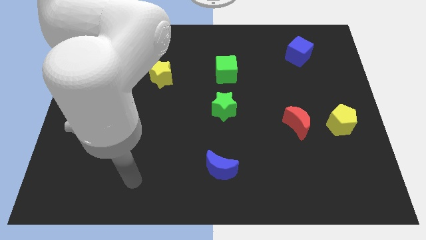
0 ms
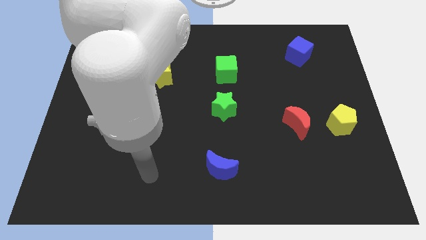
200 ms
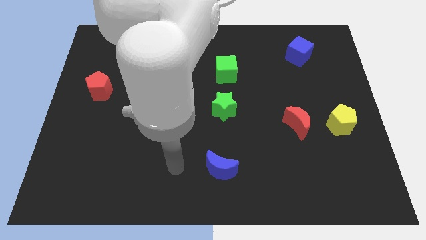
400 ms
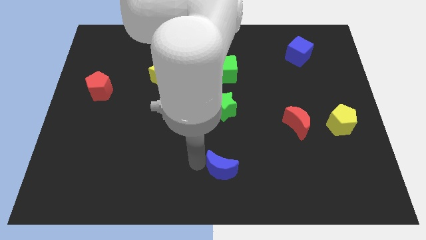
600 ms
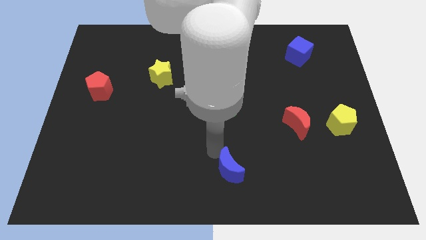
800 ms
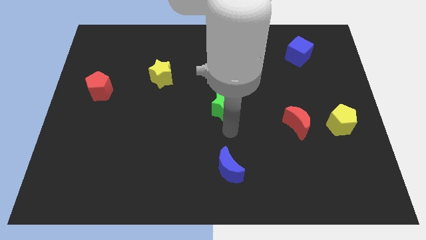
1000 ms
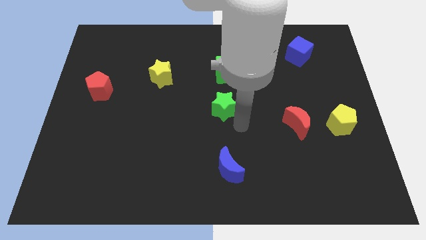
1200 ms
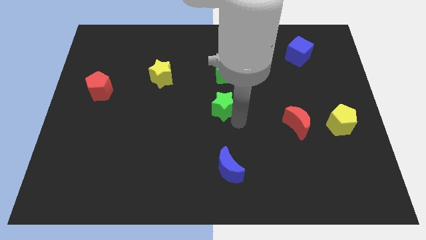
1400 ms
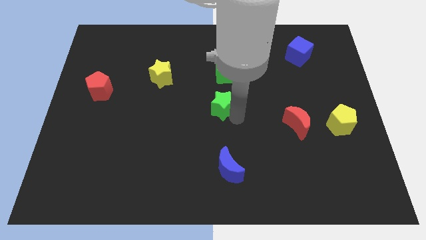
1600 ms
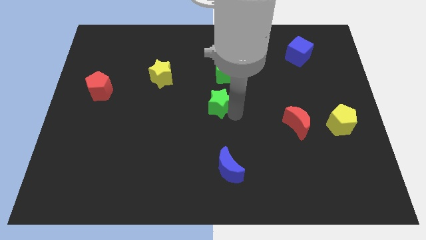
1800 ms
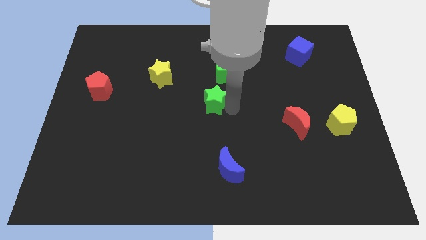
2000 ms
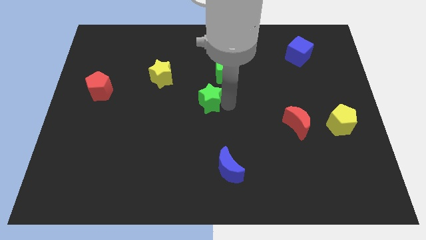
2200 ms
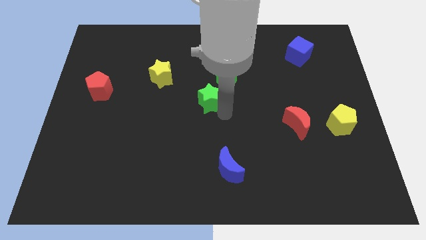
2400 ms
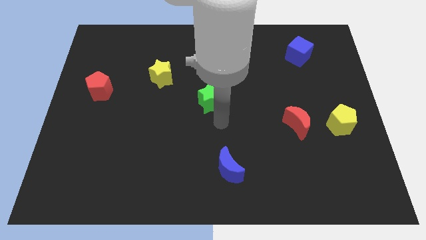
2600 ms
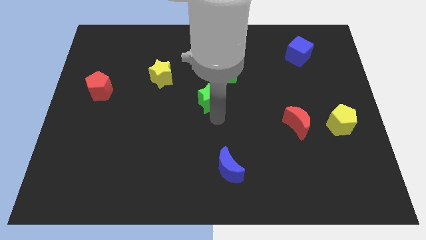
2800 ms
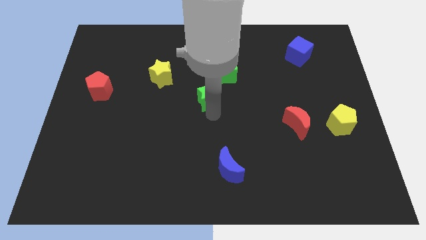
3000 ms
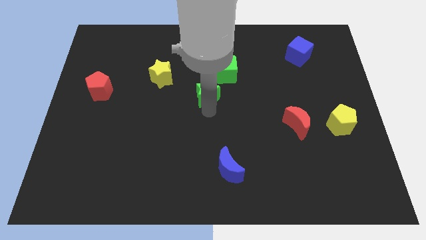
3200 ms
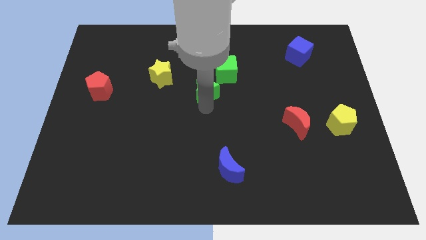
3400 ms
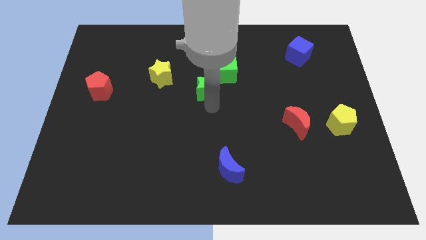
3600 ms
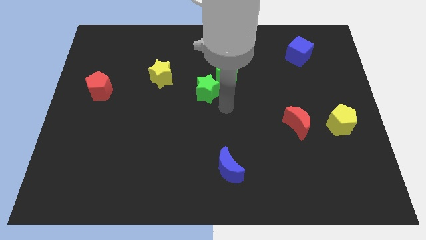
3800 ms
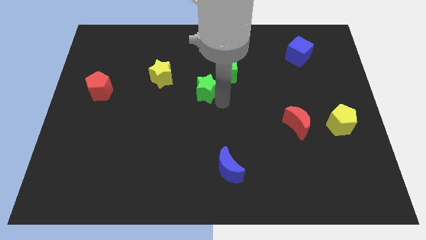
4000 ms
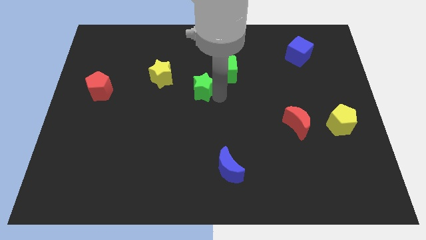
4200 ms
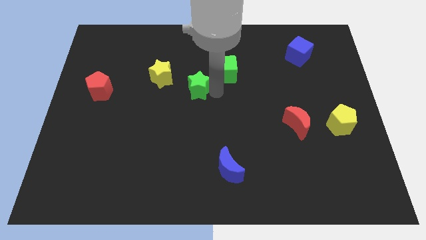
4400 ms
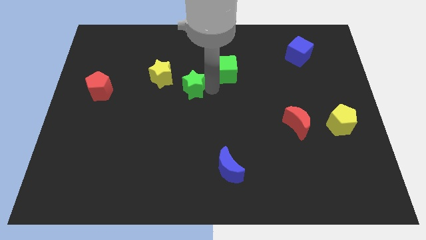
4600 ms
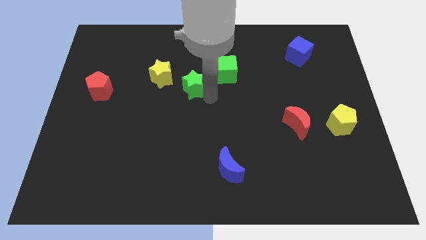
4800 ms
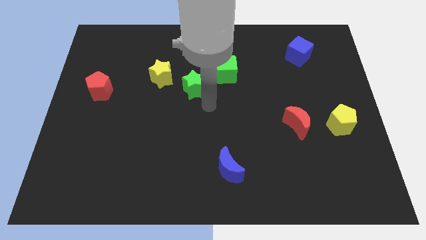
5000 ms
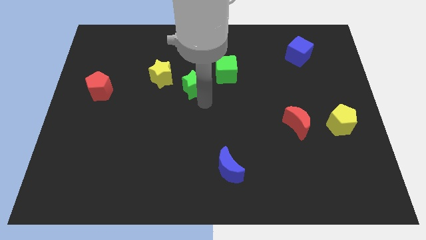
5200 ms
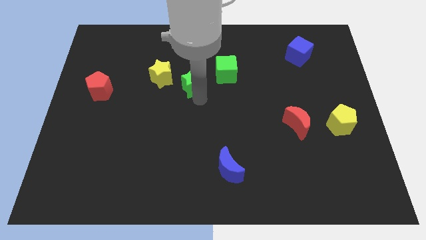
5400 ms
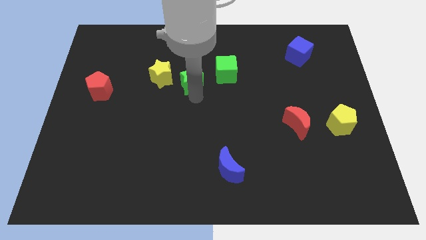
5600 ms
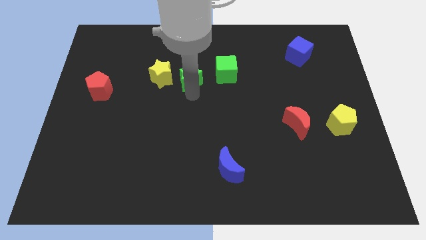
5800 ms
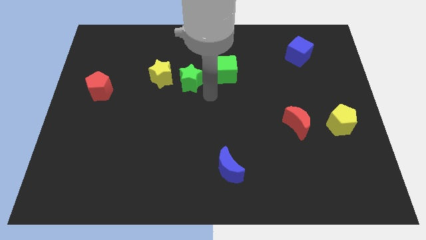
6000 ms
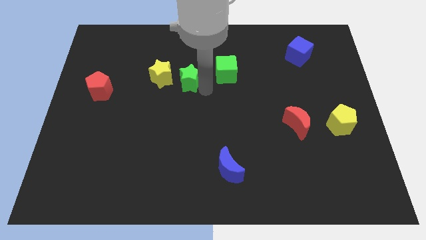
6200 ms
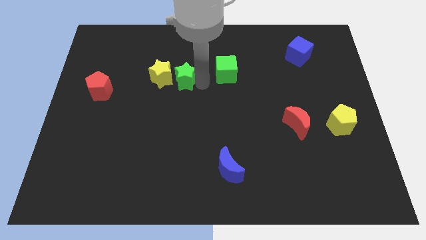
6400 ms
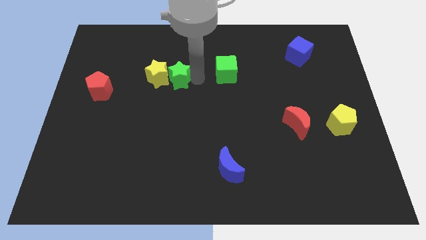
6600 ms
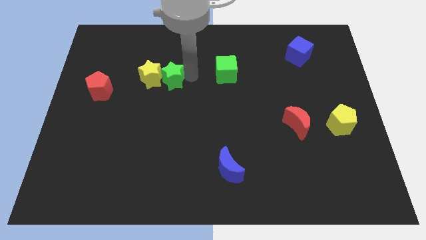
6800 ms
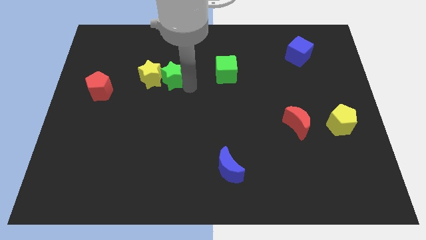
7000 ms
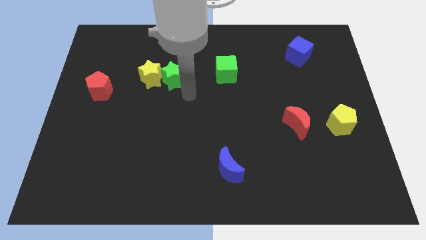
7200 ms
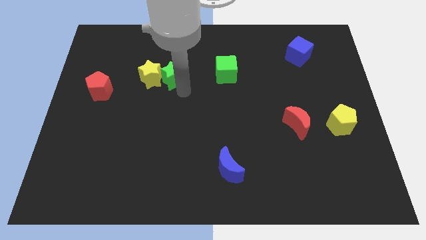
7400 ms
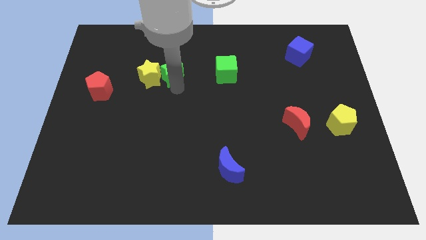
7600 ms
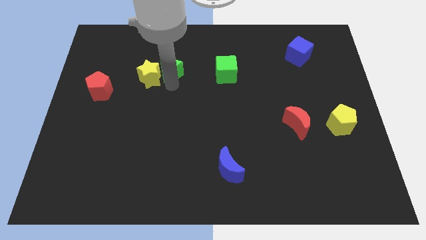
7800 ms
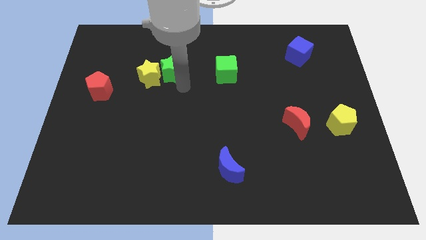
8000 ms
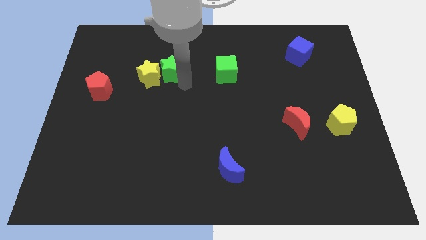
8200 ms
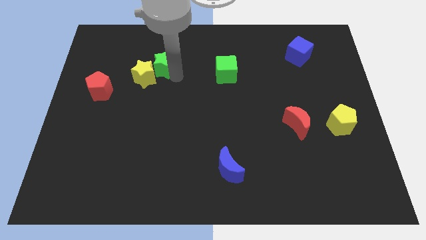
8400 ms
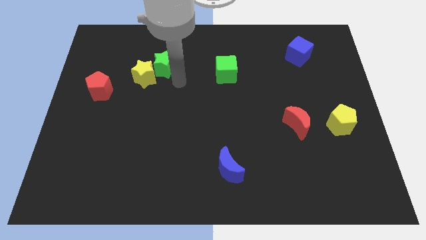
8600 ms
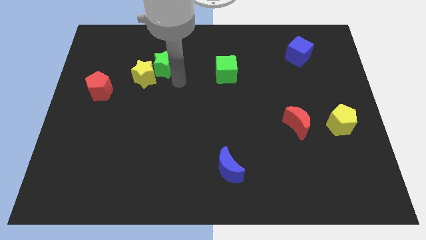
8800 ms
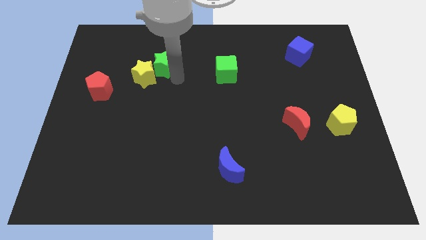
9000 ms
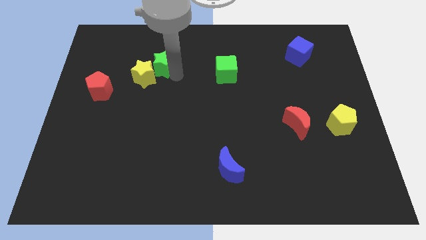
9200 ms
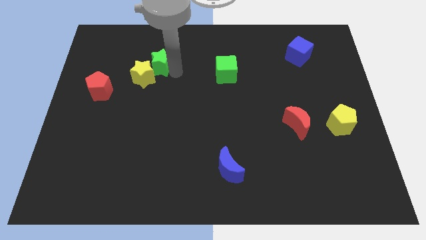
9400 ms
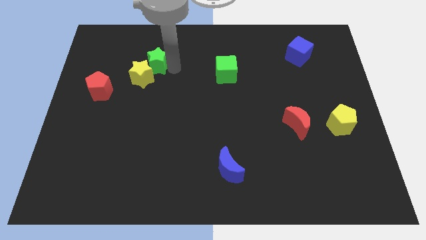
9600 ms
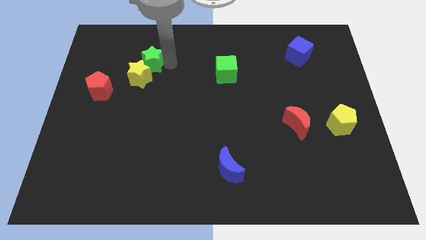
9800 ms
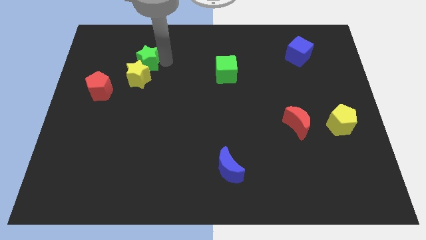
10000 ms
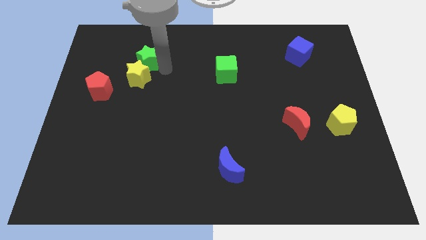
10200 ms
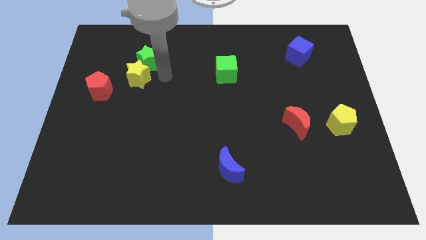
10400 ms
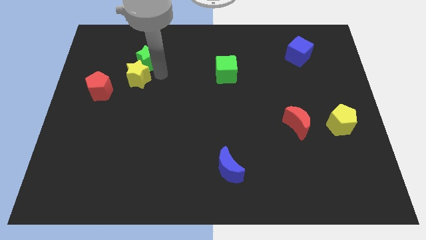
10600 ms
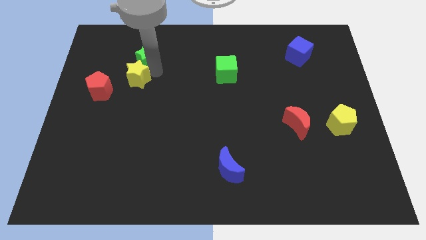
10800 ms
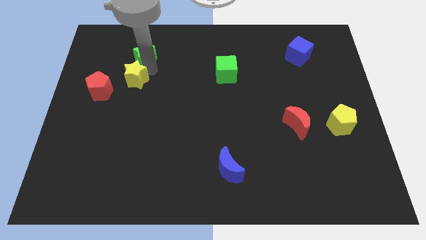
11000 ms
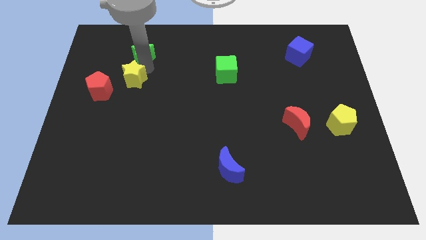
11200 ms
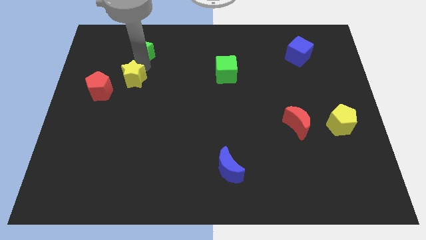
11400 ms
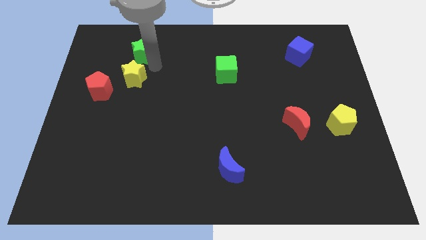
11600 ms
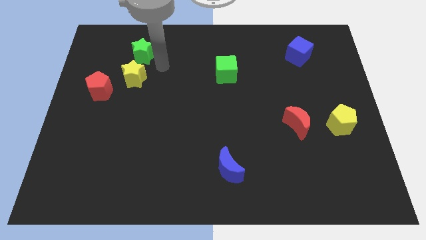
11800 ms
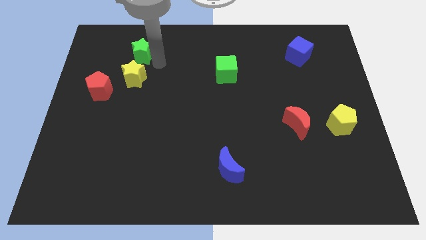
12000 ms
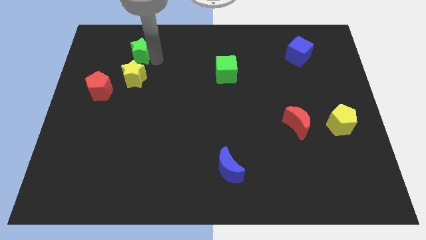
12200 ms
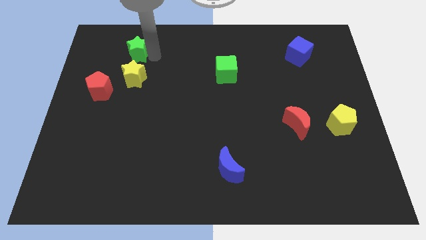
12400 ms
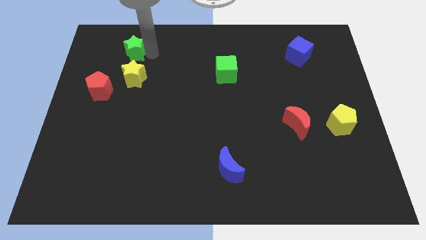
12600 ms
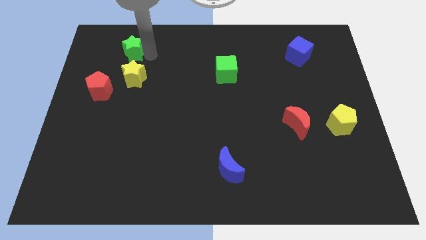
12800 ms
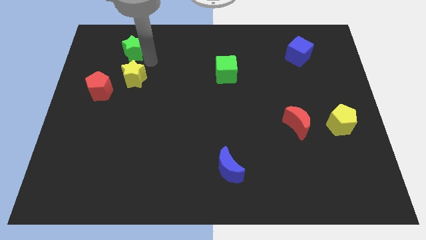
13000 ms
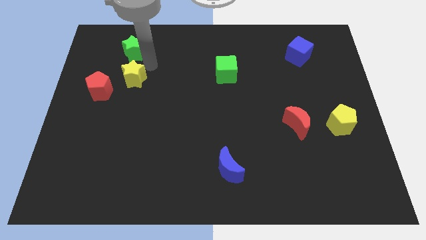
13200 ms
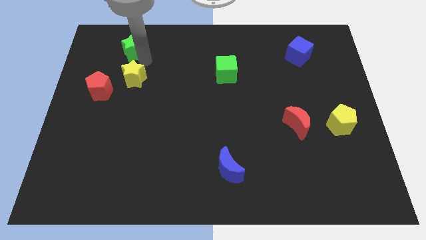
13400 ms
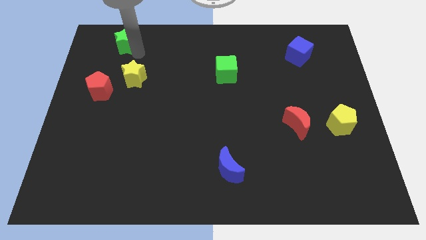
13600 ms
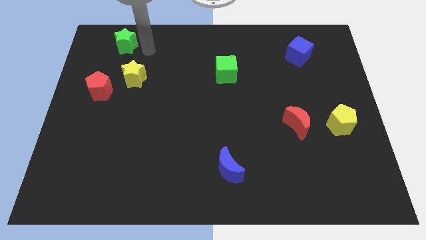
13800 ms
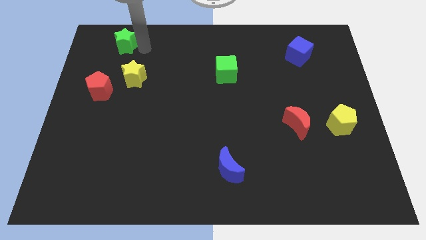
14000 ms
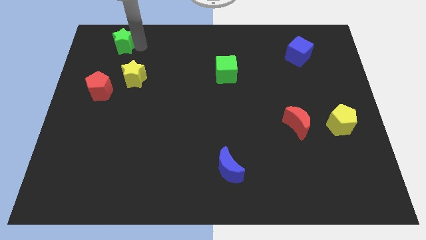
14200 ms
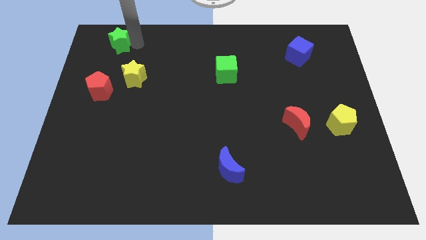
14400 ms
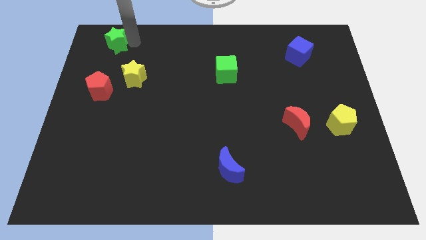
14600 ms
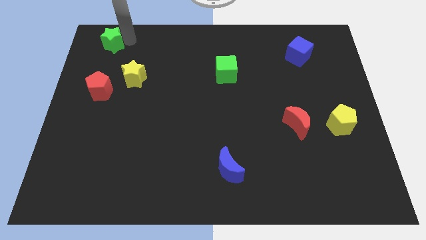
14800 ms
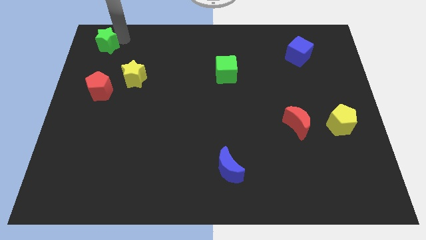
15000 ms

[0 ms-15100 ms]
move the green star to the upper left corner
